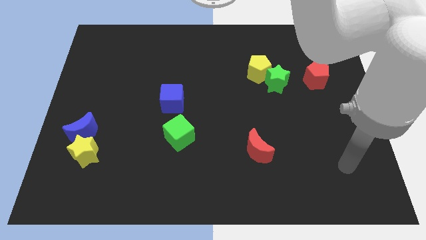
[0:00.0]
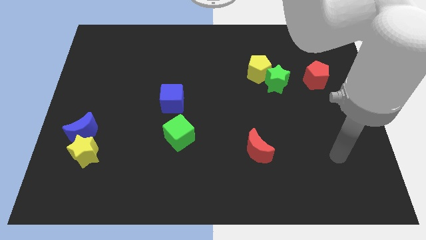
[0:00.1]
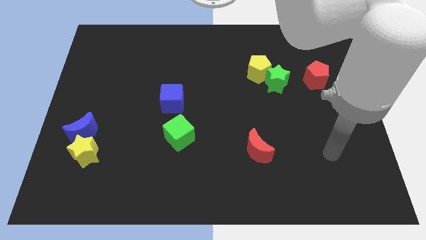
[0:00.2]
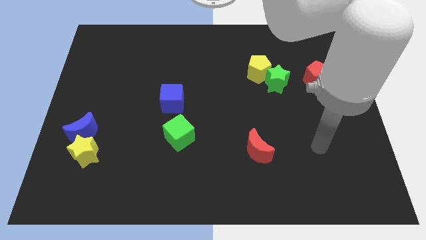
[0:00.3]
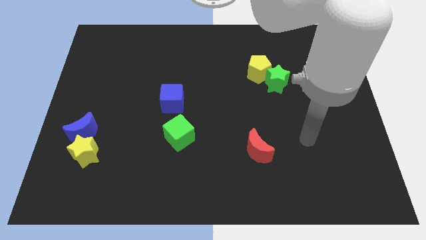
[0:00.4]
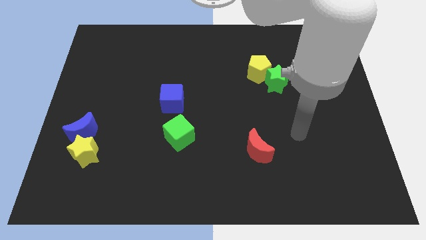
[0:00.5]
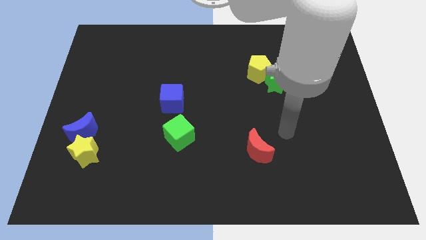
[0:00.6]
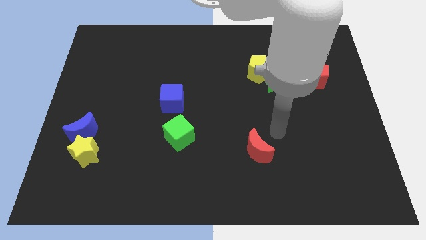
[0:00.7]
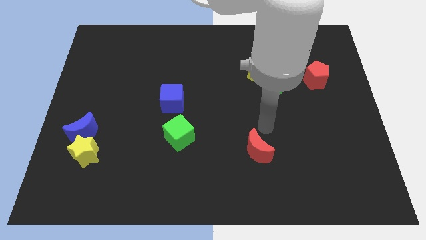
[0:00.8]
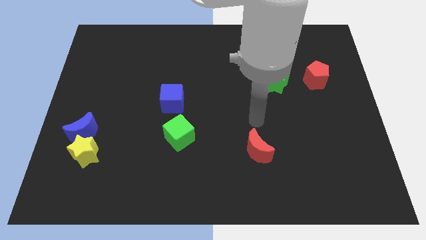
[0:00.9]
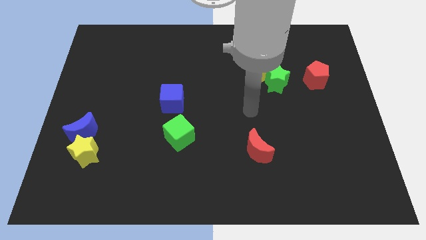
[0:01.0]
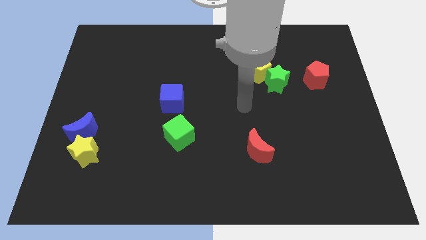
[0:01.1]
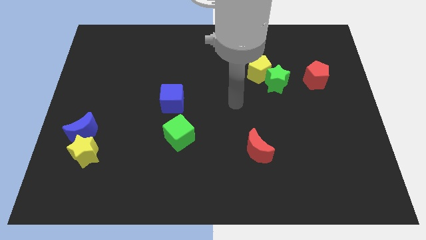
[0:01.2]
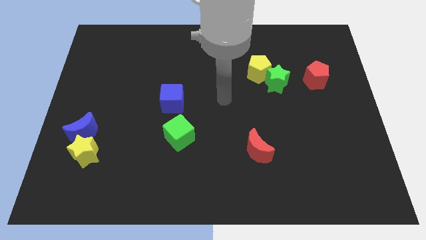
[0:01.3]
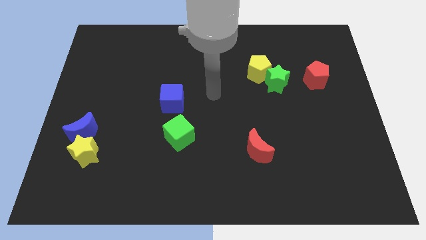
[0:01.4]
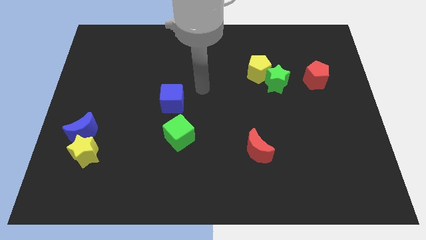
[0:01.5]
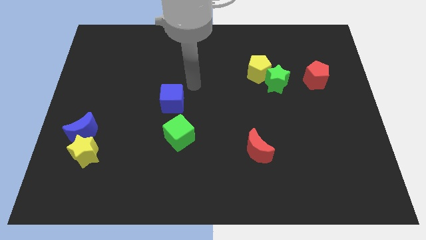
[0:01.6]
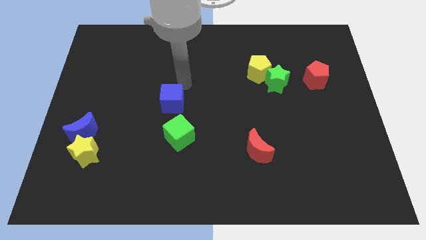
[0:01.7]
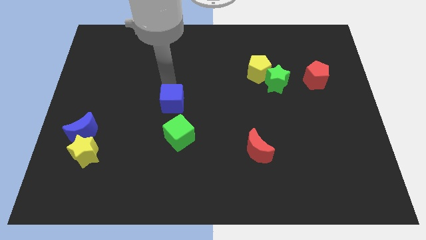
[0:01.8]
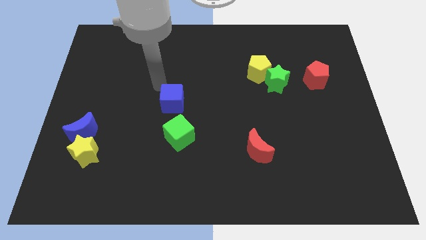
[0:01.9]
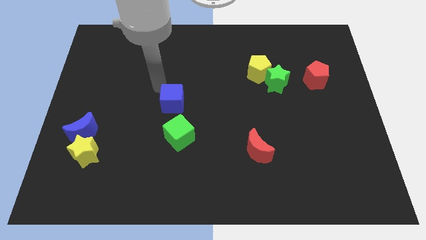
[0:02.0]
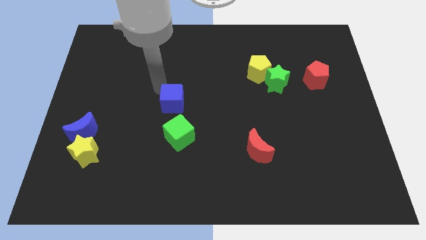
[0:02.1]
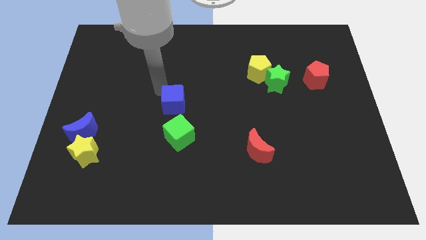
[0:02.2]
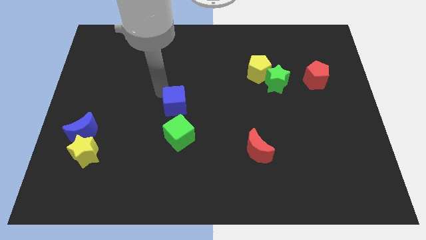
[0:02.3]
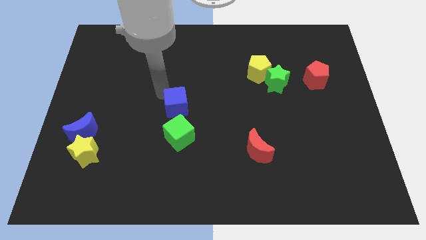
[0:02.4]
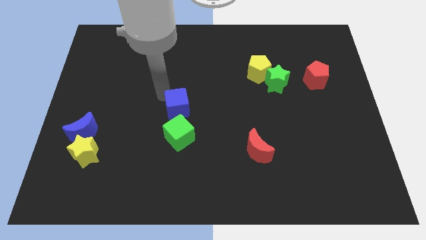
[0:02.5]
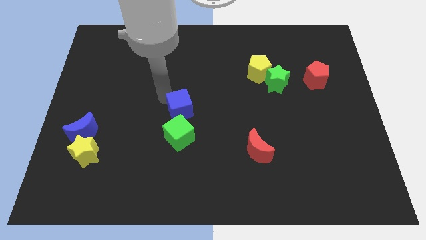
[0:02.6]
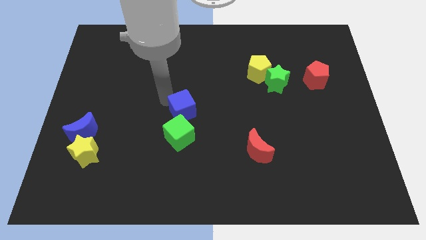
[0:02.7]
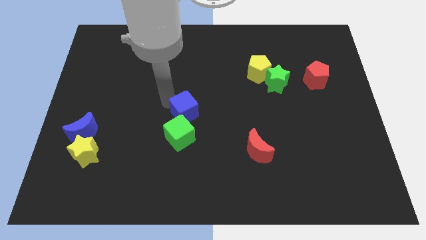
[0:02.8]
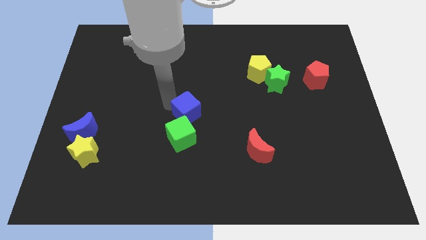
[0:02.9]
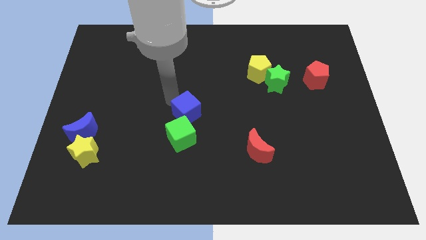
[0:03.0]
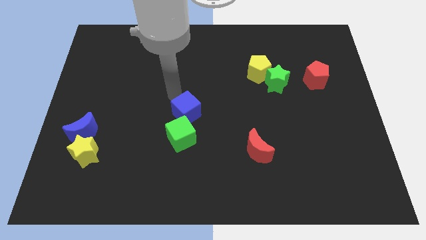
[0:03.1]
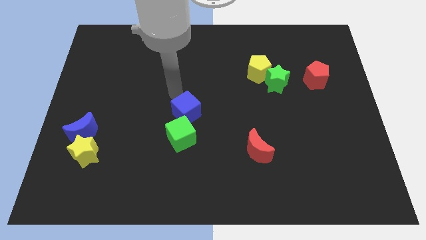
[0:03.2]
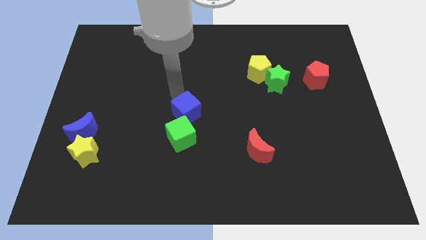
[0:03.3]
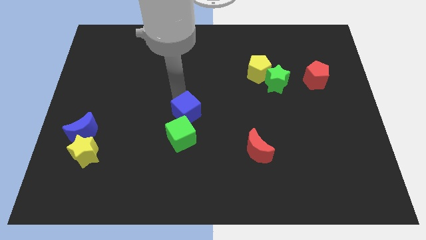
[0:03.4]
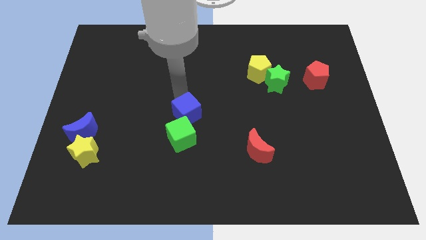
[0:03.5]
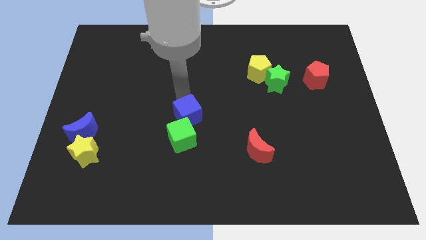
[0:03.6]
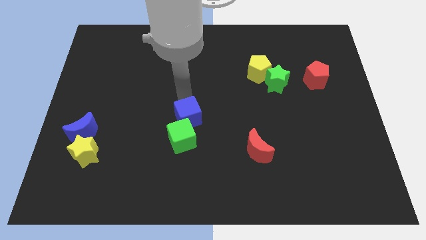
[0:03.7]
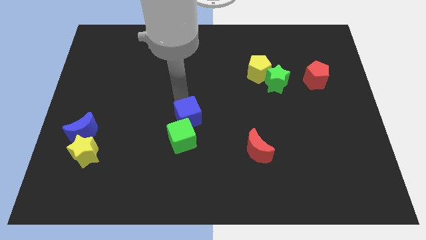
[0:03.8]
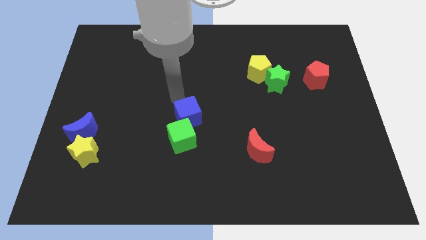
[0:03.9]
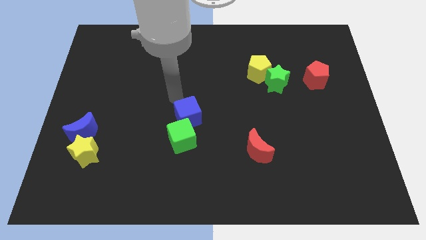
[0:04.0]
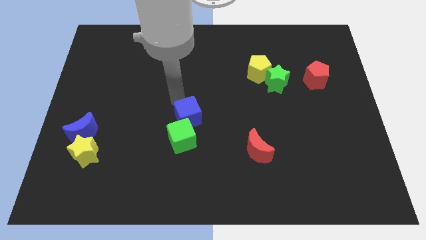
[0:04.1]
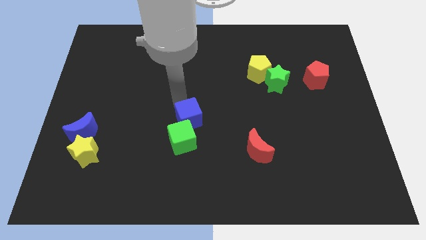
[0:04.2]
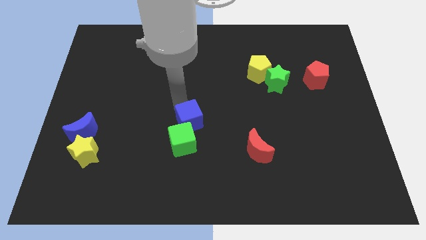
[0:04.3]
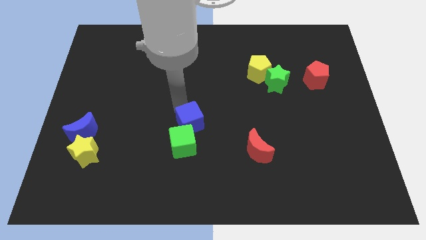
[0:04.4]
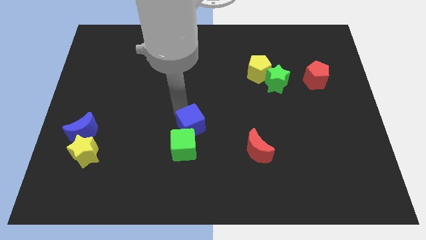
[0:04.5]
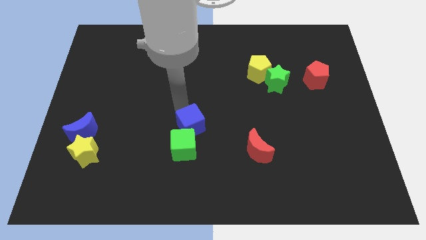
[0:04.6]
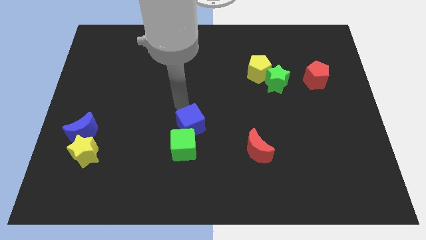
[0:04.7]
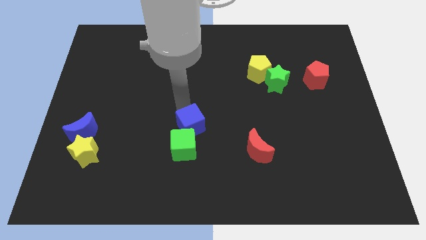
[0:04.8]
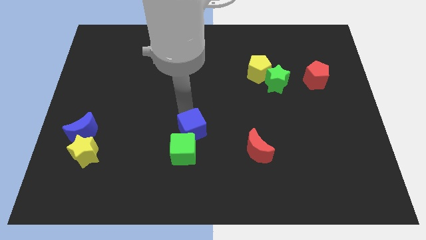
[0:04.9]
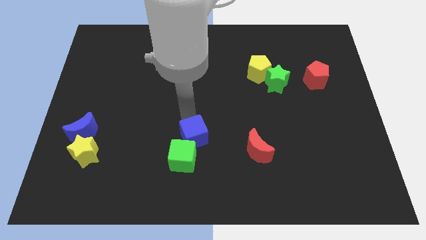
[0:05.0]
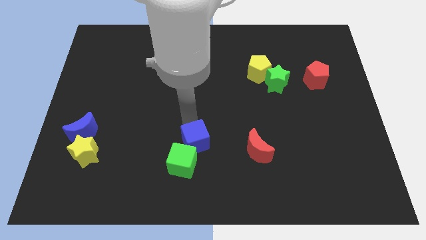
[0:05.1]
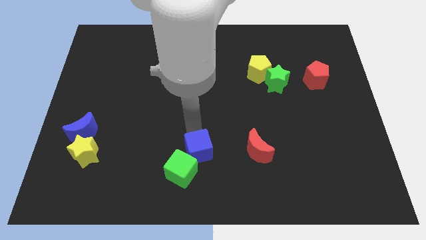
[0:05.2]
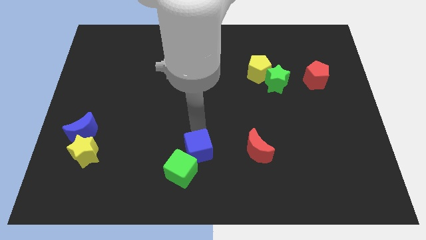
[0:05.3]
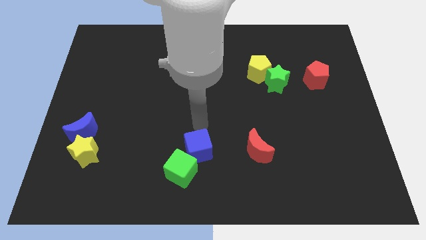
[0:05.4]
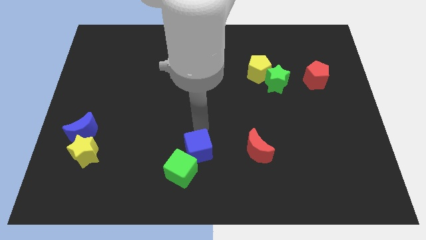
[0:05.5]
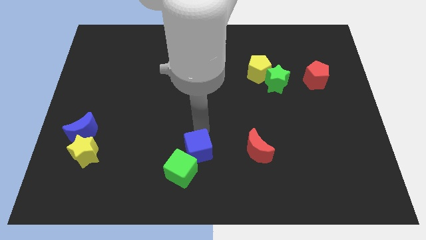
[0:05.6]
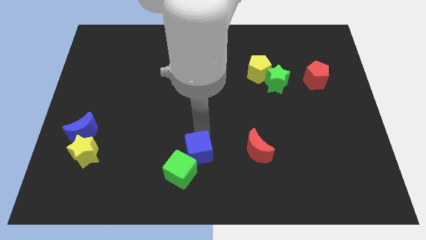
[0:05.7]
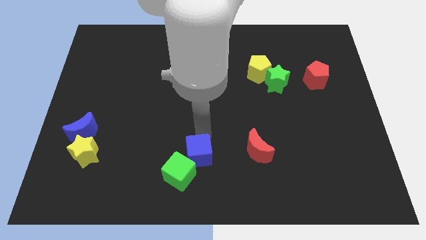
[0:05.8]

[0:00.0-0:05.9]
slide the blue cube to the bottom side
